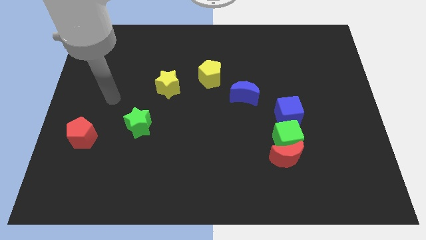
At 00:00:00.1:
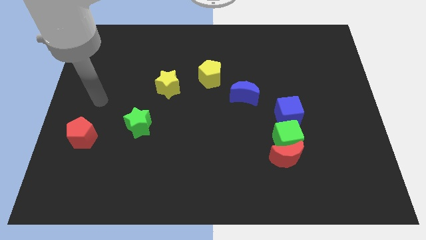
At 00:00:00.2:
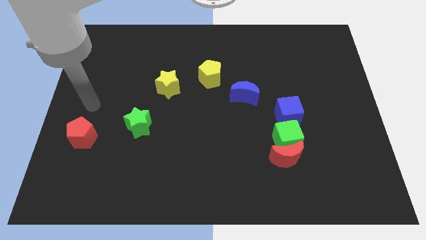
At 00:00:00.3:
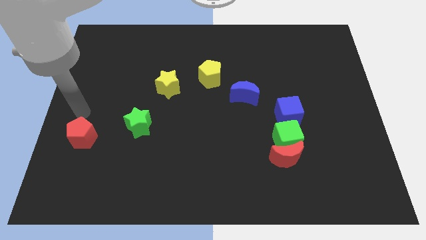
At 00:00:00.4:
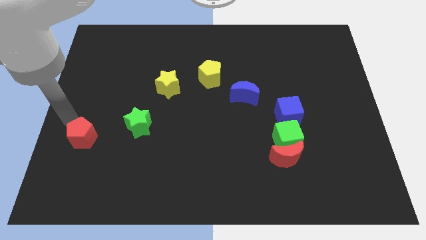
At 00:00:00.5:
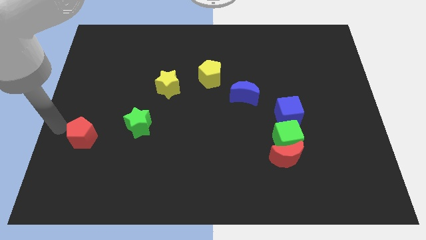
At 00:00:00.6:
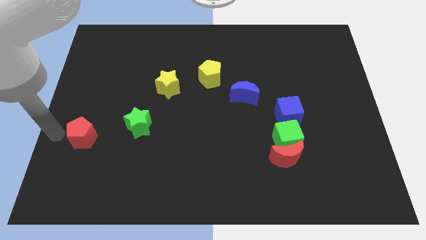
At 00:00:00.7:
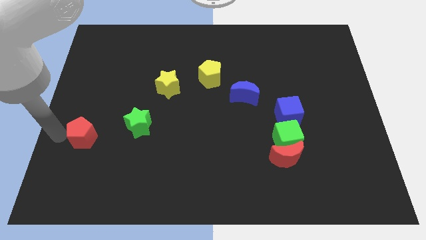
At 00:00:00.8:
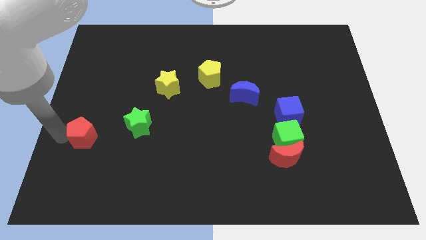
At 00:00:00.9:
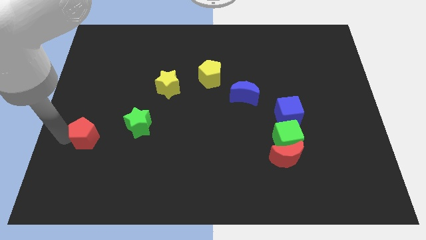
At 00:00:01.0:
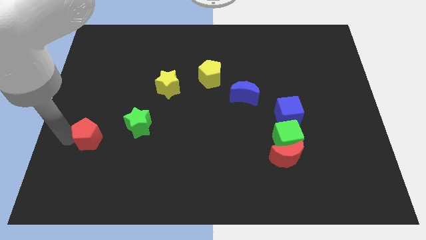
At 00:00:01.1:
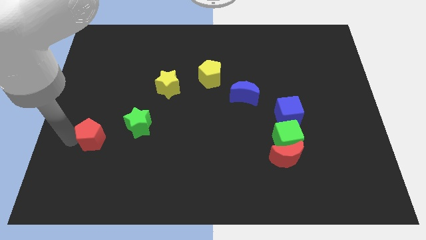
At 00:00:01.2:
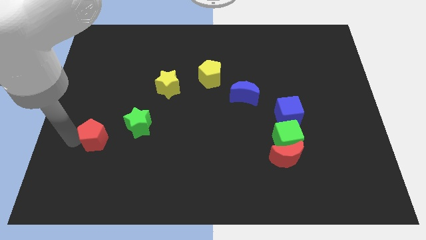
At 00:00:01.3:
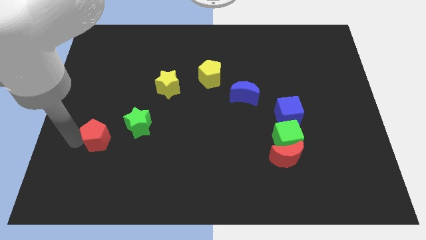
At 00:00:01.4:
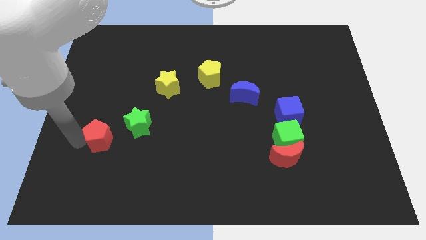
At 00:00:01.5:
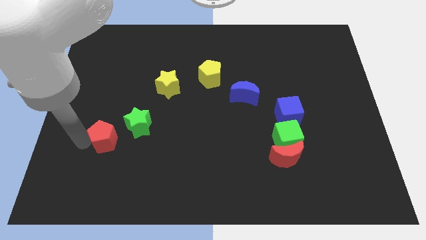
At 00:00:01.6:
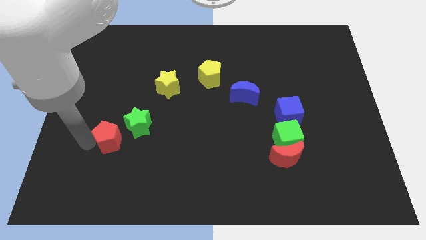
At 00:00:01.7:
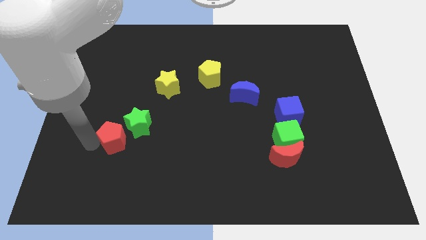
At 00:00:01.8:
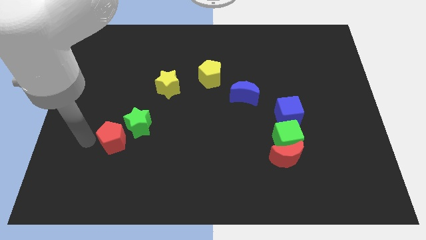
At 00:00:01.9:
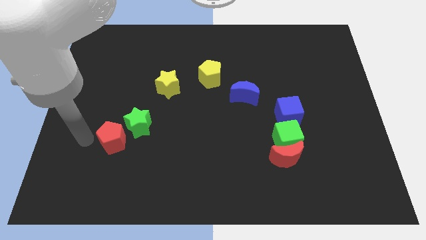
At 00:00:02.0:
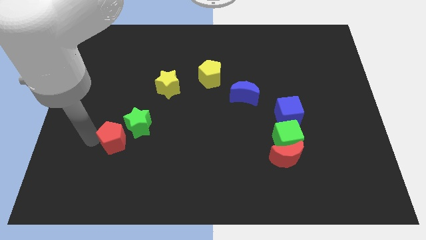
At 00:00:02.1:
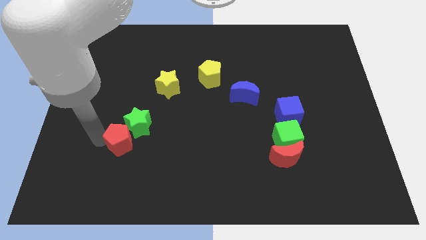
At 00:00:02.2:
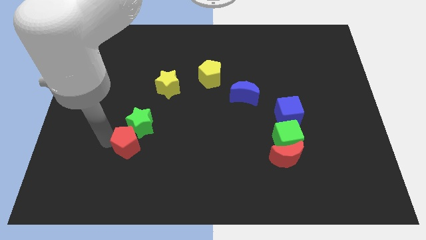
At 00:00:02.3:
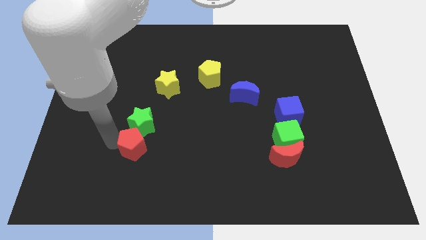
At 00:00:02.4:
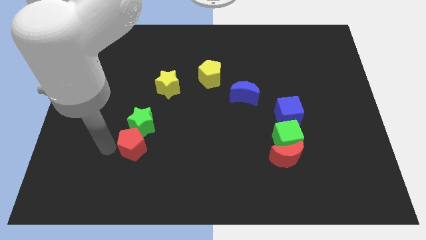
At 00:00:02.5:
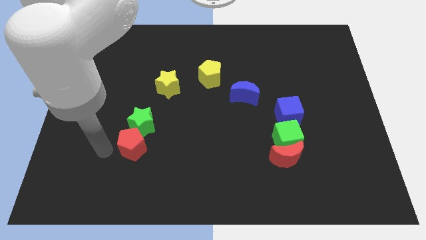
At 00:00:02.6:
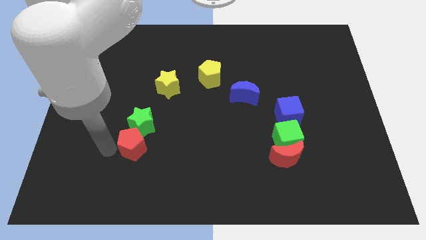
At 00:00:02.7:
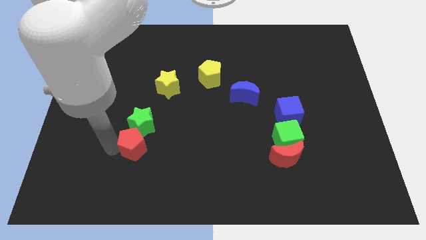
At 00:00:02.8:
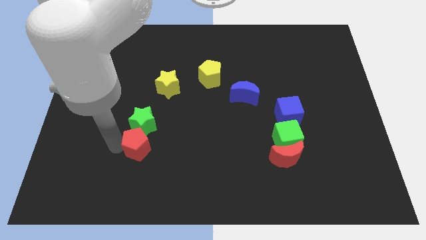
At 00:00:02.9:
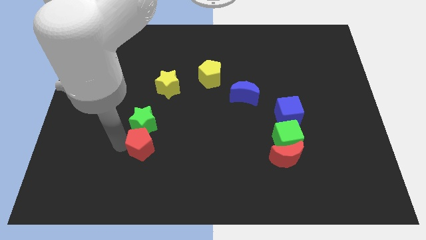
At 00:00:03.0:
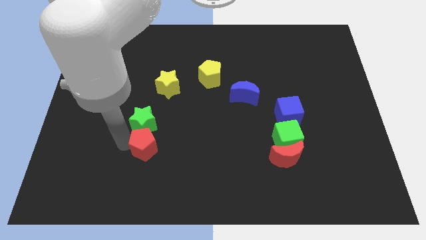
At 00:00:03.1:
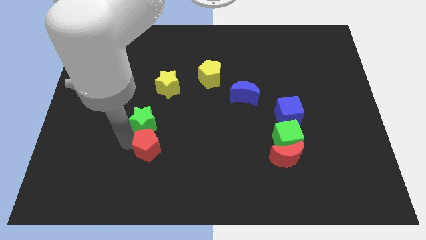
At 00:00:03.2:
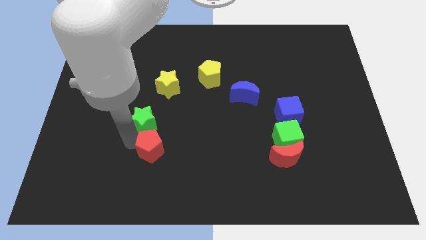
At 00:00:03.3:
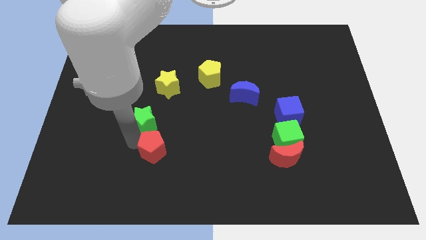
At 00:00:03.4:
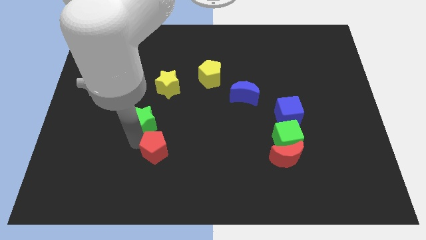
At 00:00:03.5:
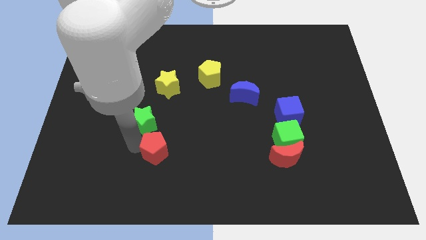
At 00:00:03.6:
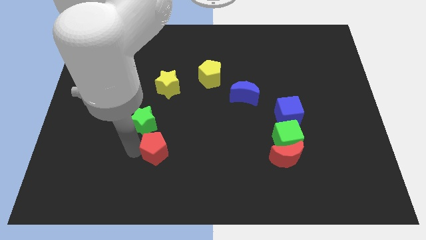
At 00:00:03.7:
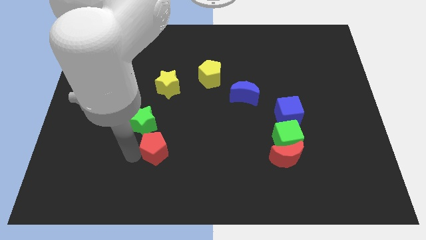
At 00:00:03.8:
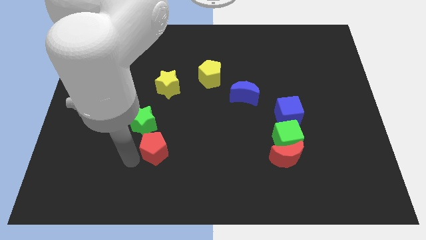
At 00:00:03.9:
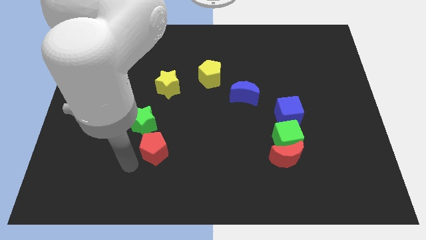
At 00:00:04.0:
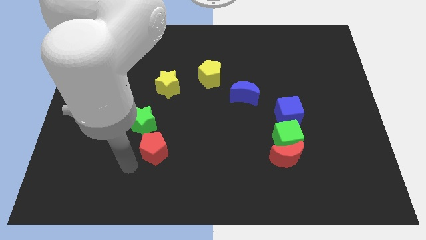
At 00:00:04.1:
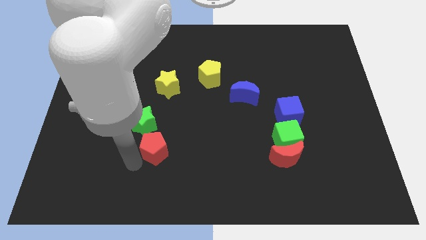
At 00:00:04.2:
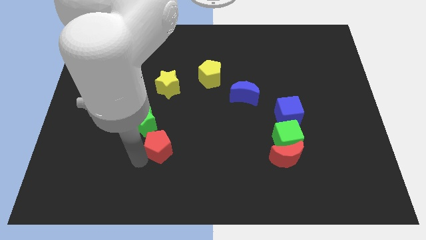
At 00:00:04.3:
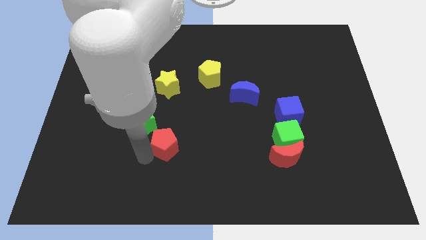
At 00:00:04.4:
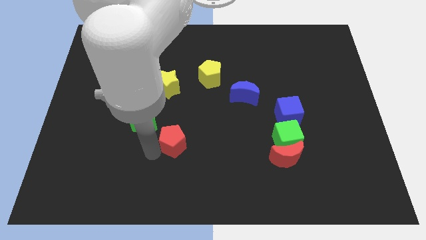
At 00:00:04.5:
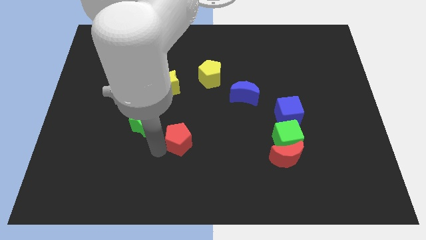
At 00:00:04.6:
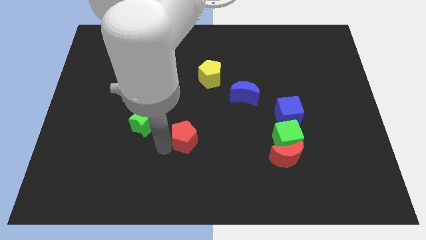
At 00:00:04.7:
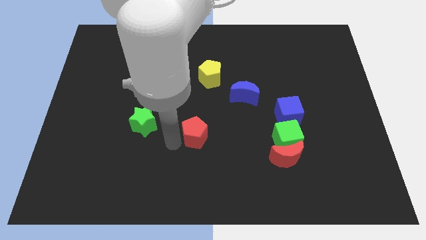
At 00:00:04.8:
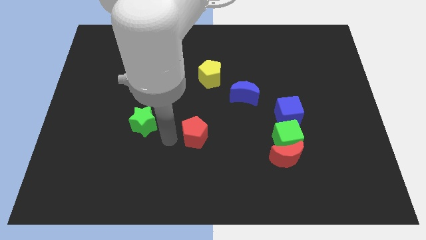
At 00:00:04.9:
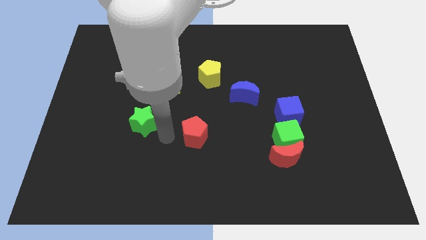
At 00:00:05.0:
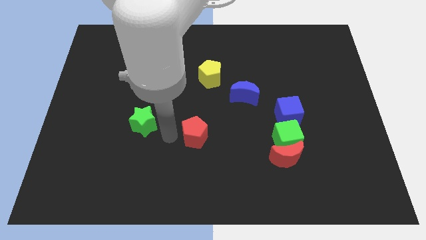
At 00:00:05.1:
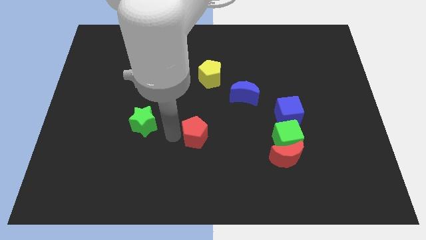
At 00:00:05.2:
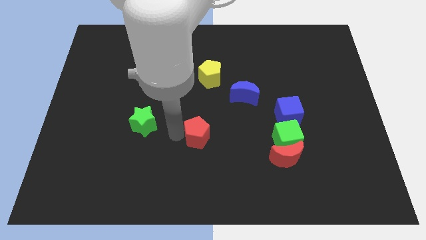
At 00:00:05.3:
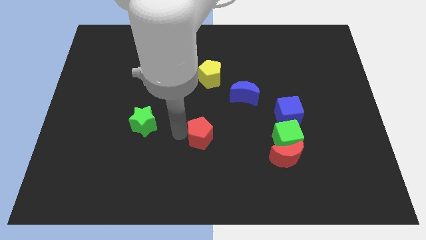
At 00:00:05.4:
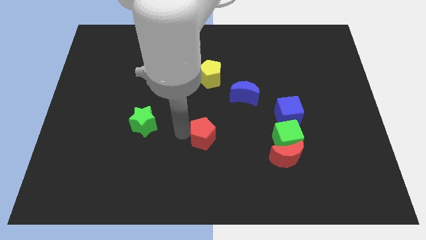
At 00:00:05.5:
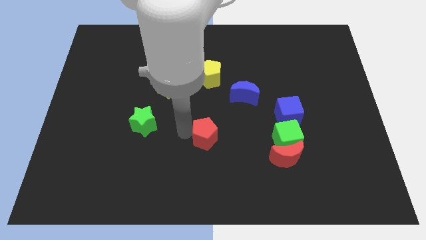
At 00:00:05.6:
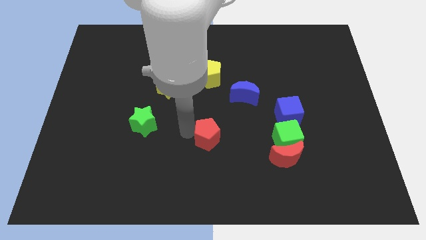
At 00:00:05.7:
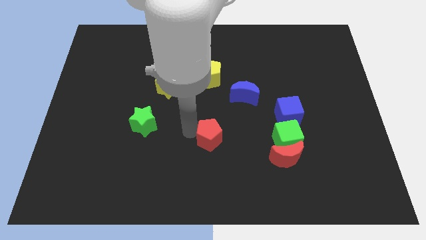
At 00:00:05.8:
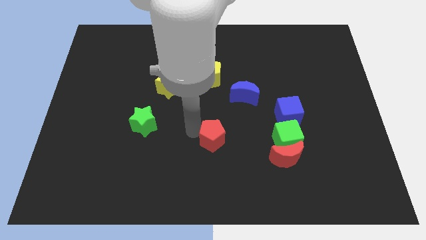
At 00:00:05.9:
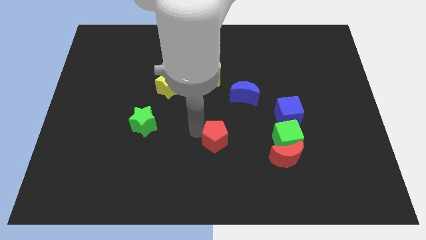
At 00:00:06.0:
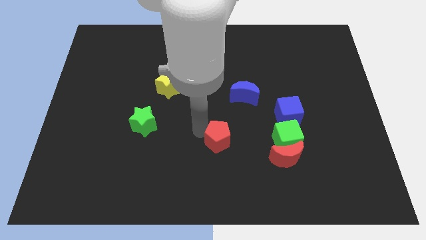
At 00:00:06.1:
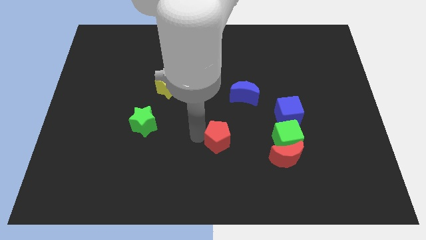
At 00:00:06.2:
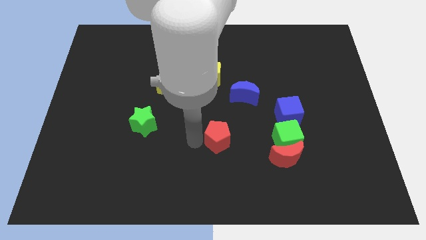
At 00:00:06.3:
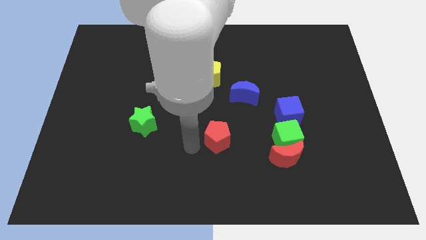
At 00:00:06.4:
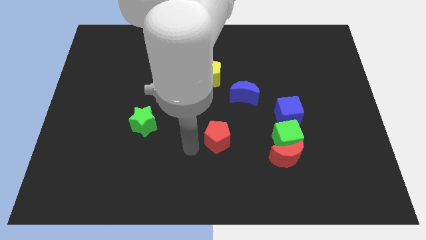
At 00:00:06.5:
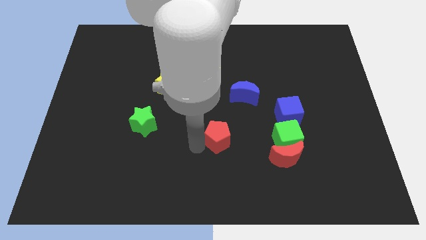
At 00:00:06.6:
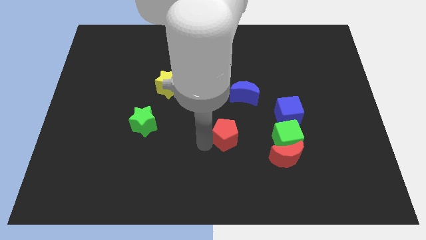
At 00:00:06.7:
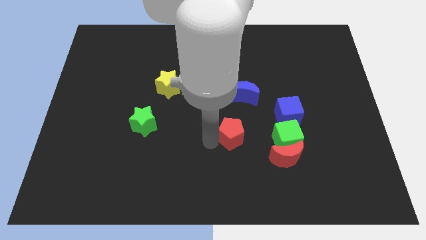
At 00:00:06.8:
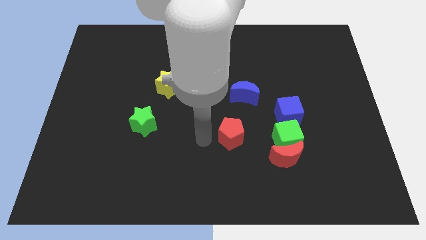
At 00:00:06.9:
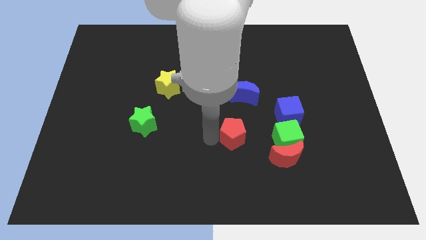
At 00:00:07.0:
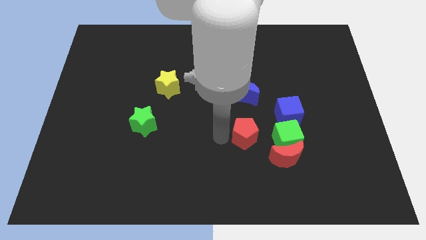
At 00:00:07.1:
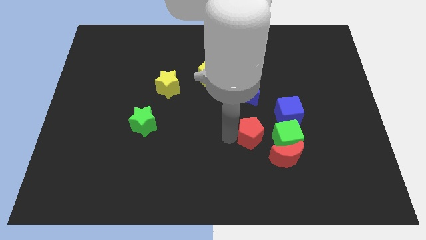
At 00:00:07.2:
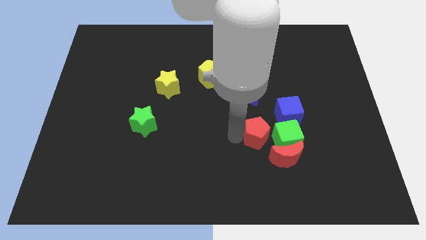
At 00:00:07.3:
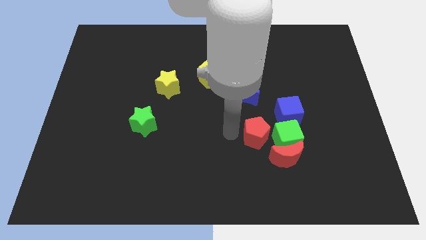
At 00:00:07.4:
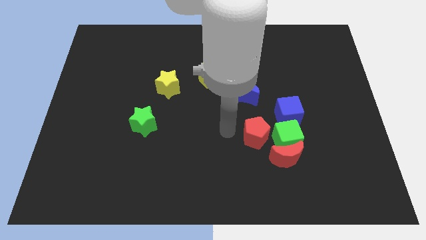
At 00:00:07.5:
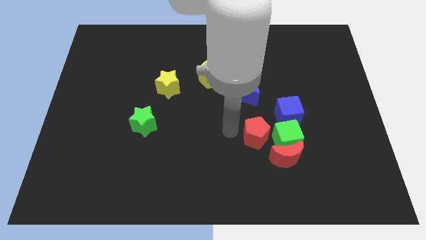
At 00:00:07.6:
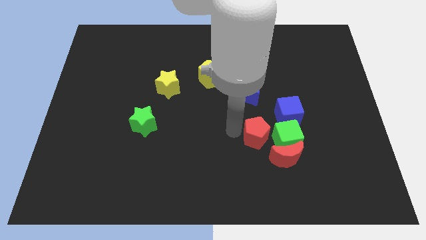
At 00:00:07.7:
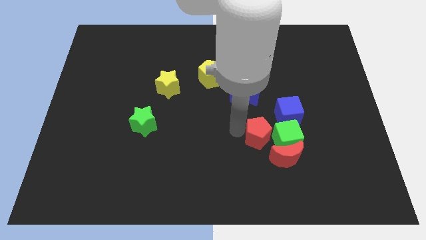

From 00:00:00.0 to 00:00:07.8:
move the red pentagon to the green cube
